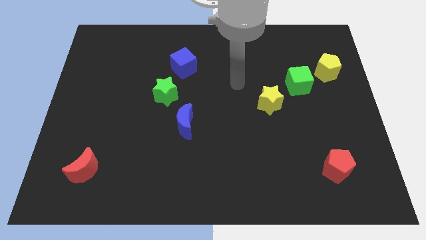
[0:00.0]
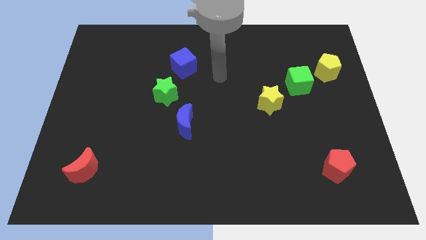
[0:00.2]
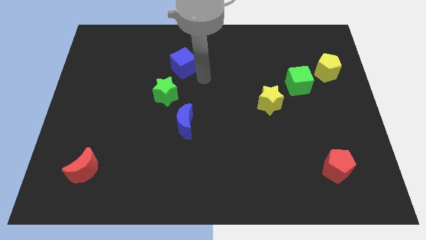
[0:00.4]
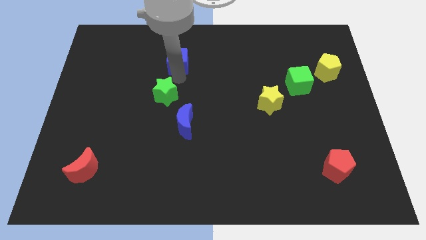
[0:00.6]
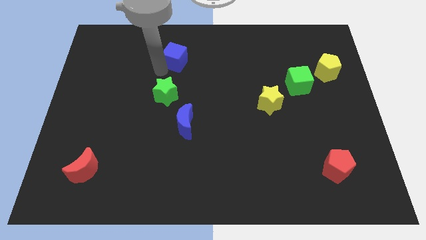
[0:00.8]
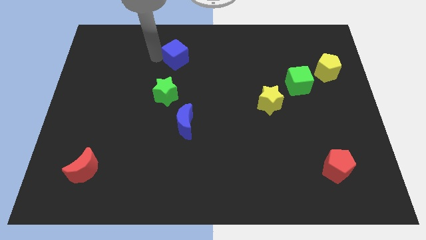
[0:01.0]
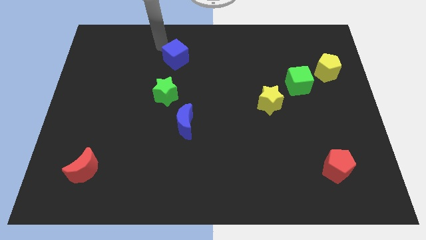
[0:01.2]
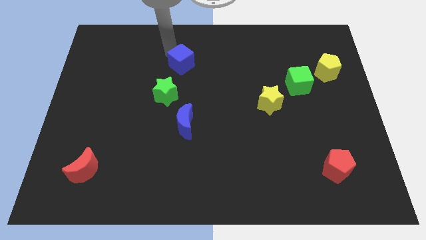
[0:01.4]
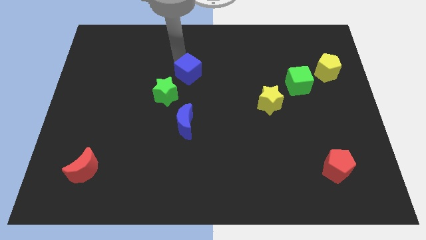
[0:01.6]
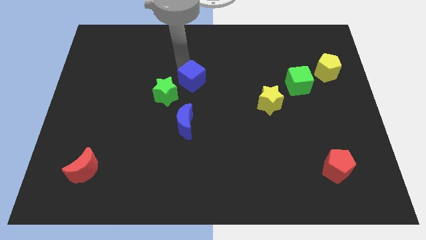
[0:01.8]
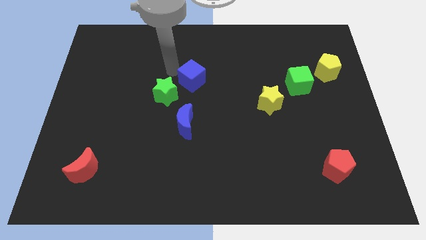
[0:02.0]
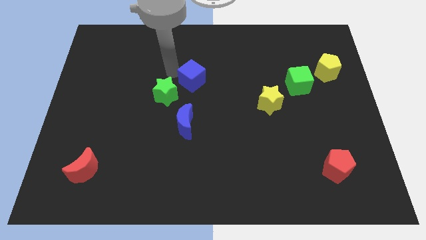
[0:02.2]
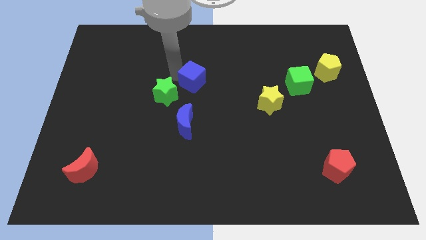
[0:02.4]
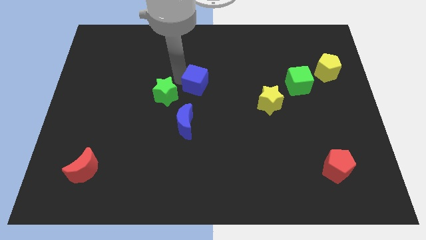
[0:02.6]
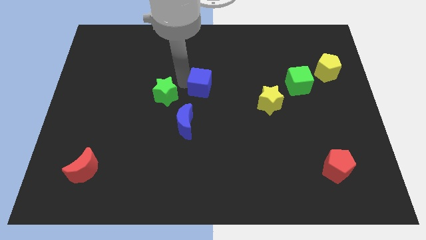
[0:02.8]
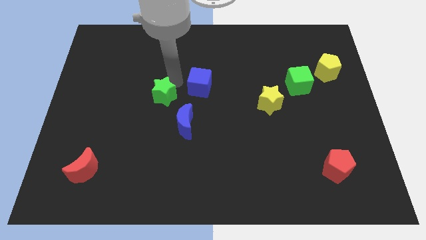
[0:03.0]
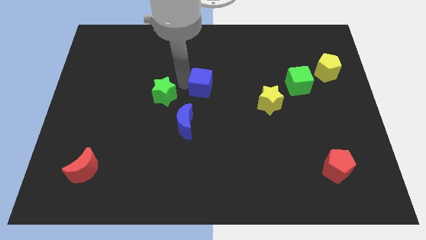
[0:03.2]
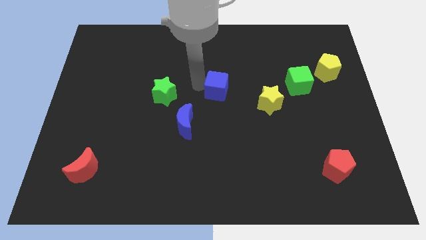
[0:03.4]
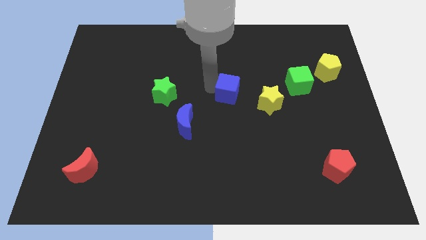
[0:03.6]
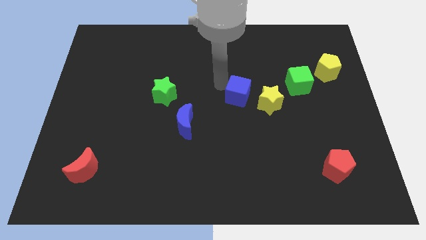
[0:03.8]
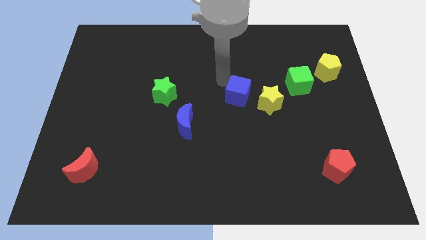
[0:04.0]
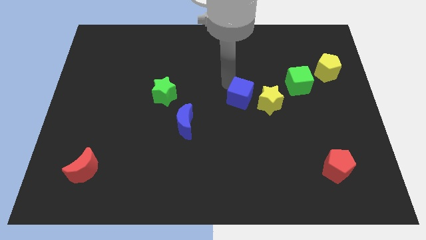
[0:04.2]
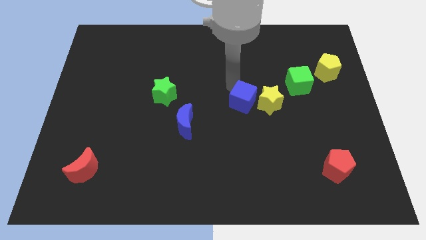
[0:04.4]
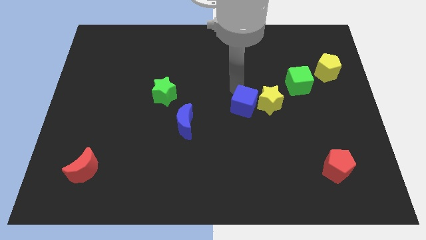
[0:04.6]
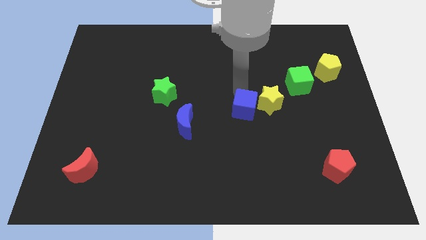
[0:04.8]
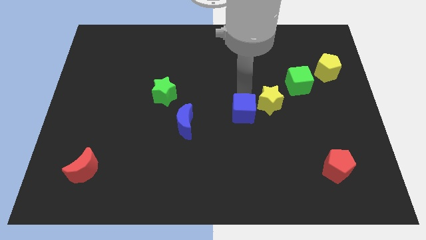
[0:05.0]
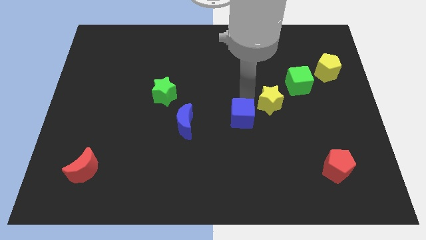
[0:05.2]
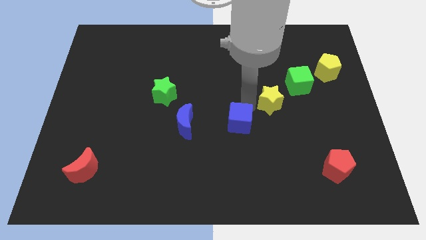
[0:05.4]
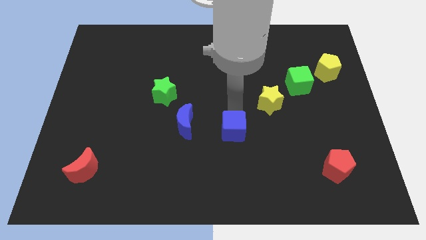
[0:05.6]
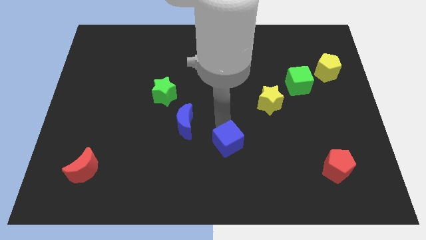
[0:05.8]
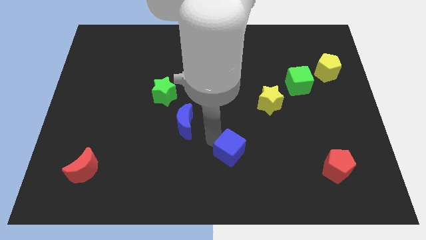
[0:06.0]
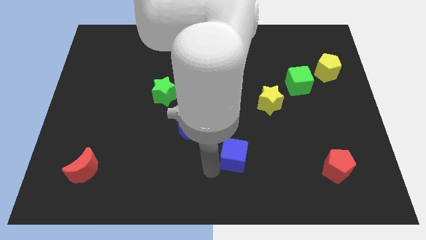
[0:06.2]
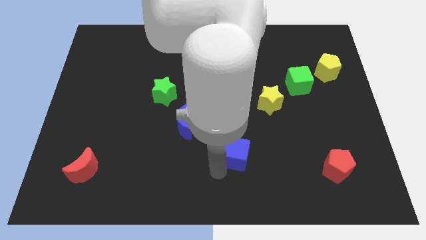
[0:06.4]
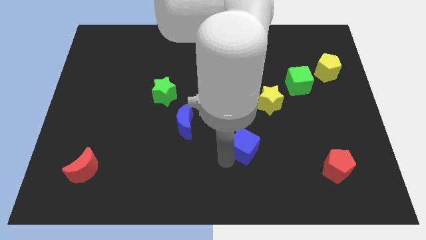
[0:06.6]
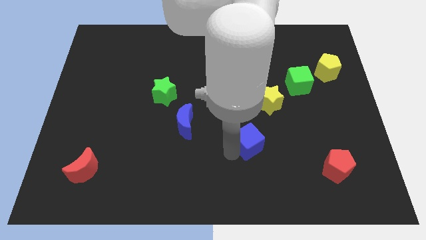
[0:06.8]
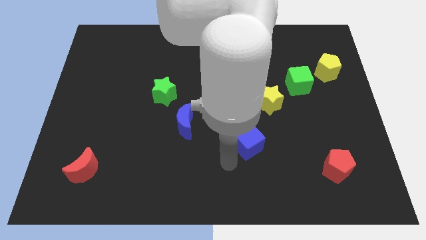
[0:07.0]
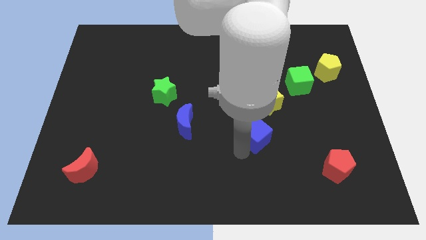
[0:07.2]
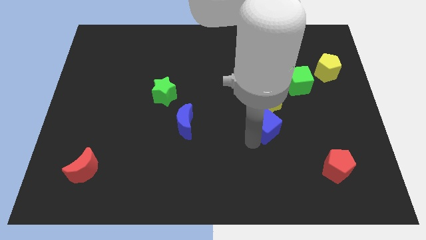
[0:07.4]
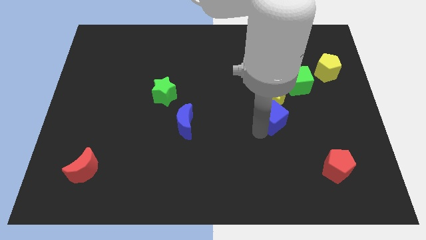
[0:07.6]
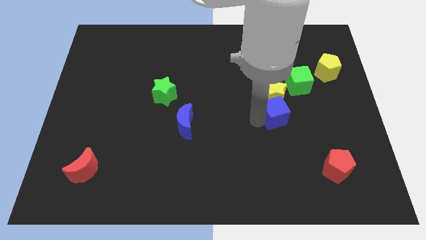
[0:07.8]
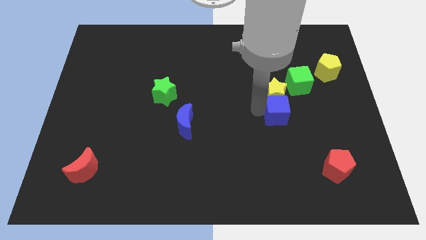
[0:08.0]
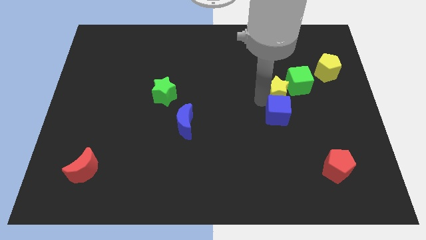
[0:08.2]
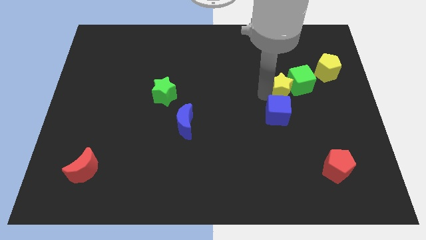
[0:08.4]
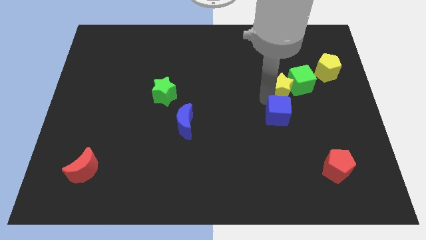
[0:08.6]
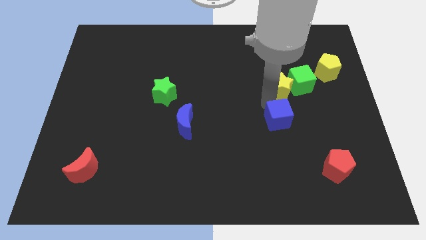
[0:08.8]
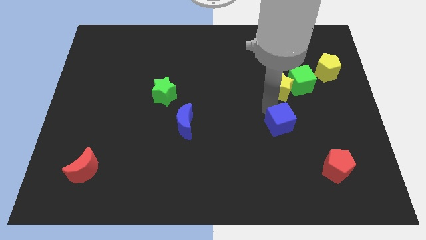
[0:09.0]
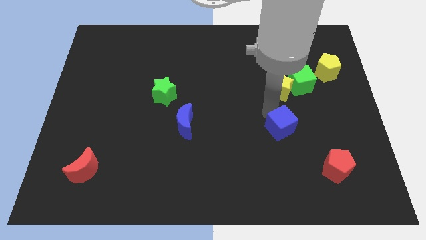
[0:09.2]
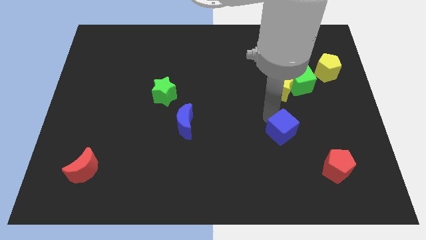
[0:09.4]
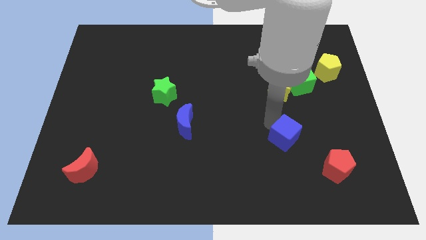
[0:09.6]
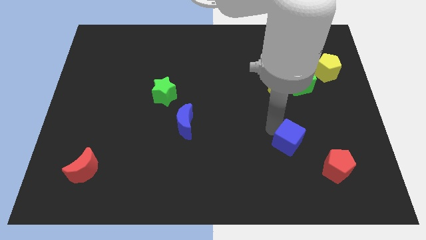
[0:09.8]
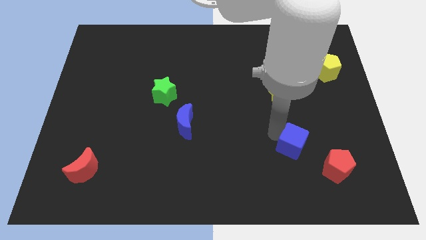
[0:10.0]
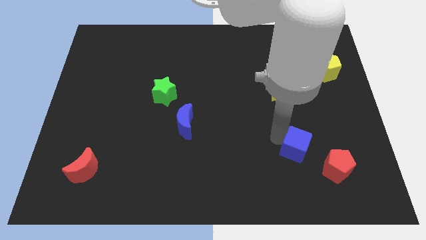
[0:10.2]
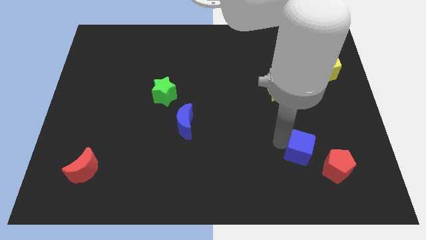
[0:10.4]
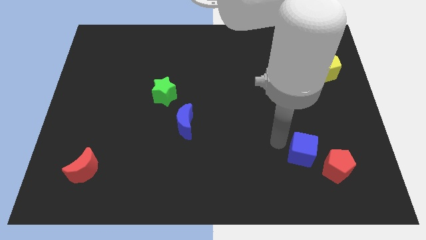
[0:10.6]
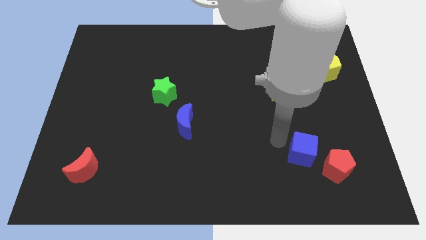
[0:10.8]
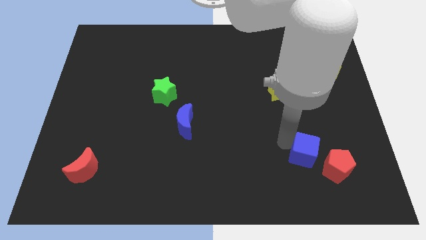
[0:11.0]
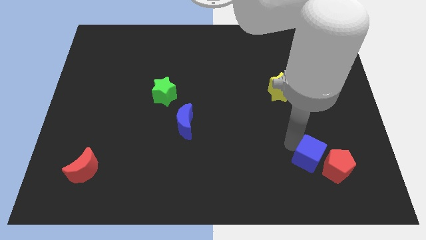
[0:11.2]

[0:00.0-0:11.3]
put the blue cube next to the red pentagon

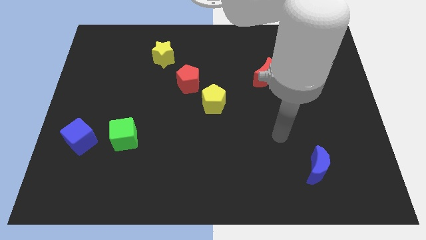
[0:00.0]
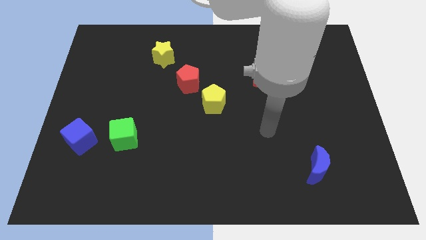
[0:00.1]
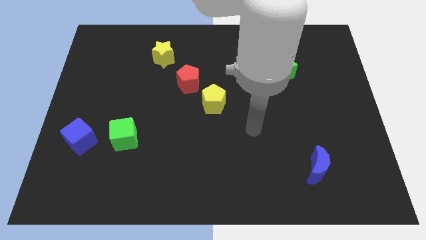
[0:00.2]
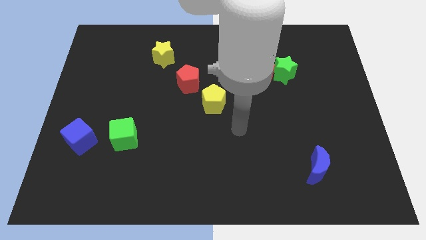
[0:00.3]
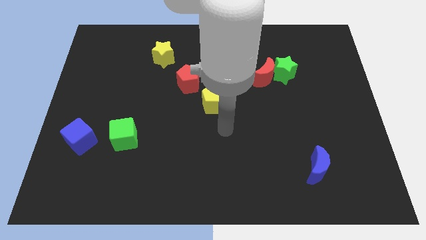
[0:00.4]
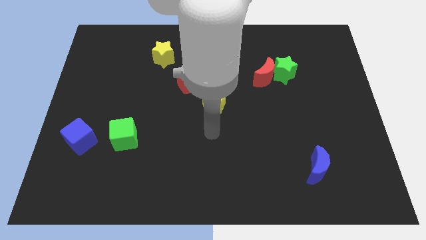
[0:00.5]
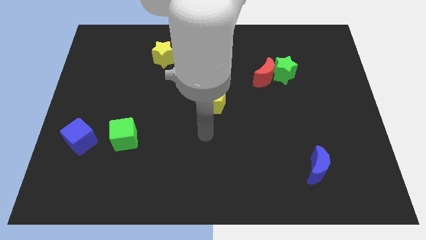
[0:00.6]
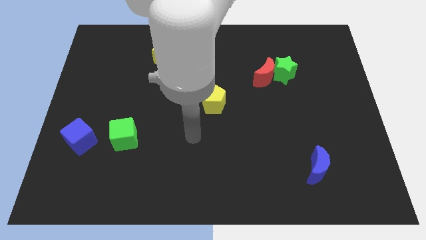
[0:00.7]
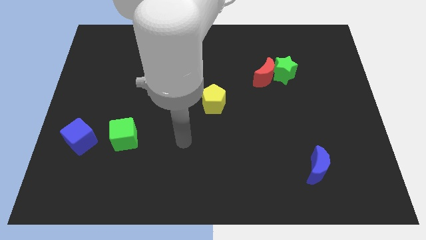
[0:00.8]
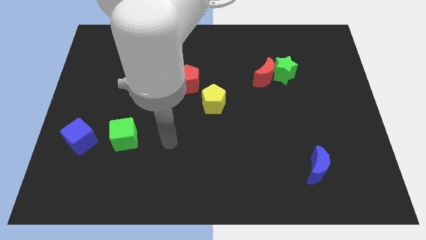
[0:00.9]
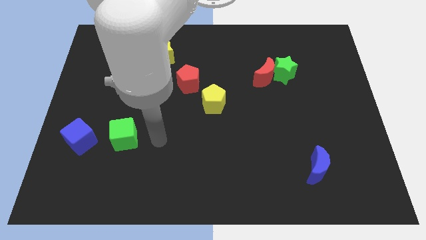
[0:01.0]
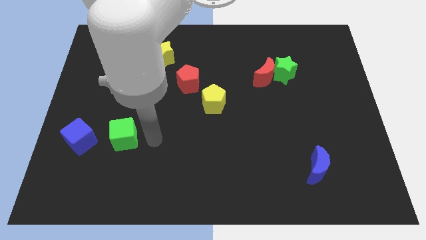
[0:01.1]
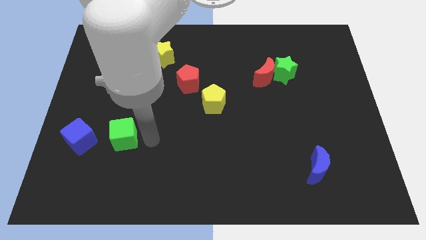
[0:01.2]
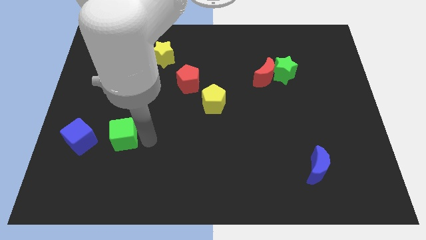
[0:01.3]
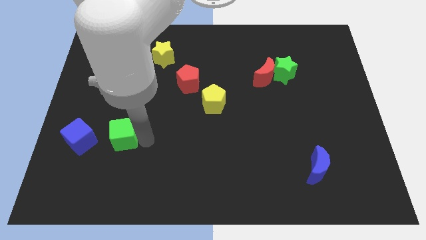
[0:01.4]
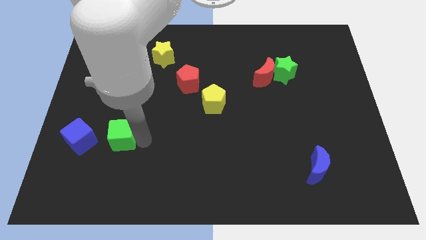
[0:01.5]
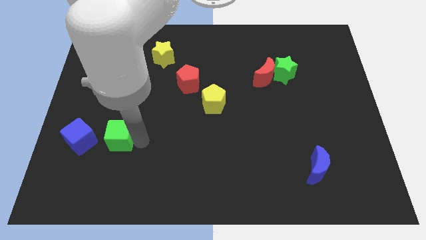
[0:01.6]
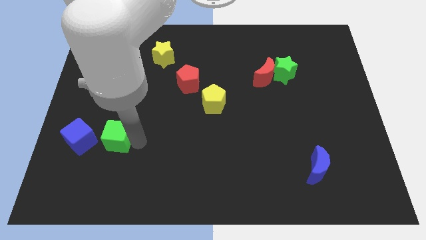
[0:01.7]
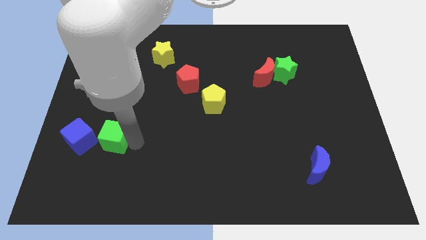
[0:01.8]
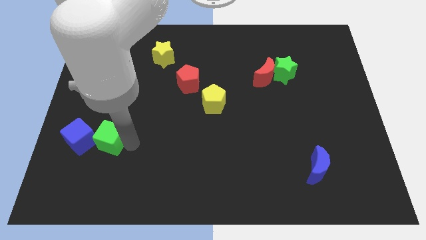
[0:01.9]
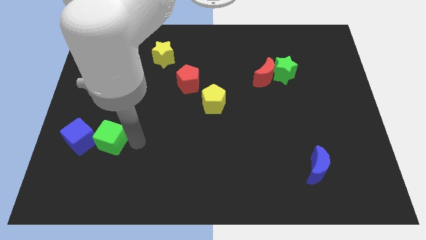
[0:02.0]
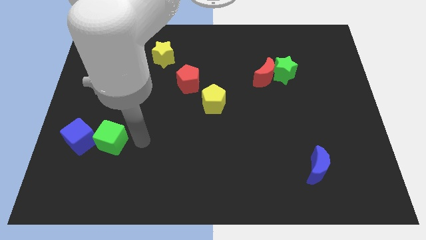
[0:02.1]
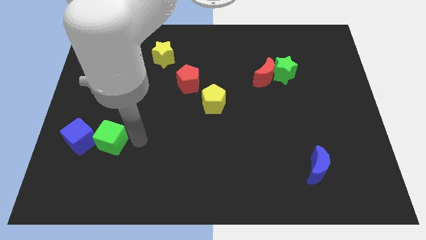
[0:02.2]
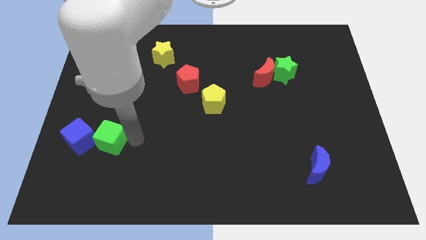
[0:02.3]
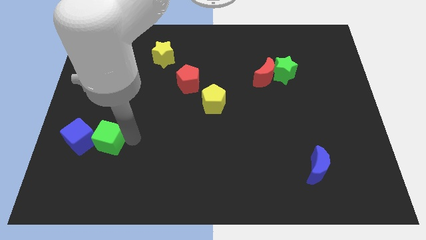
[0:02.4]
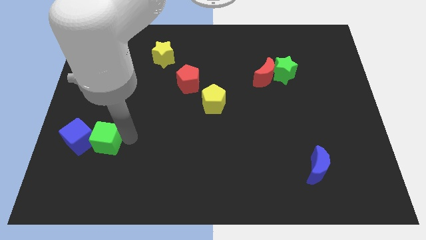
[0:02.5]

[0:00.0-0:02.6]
push the green cube next to the blue cube
